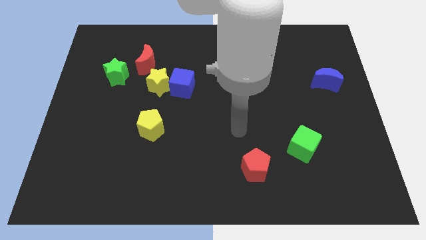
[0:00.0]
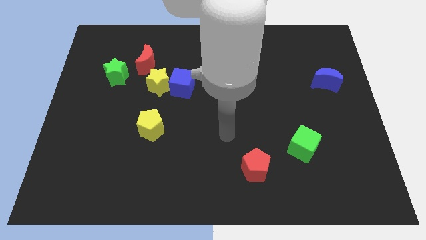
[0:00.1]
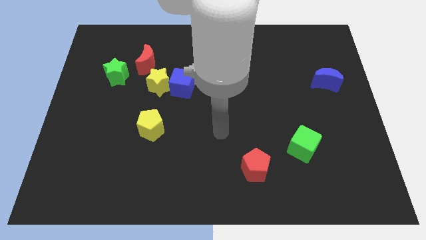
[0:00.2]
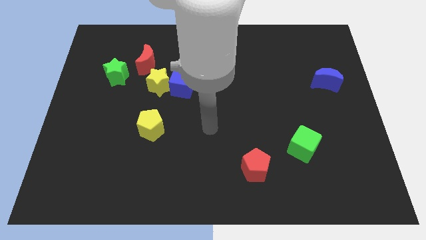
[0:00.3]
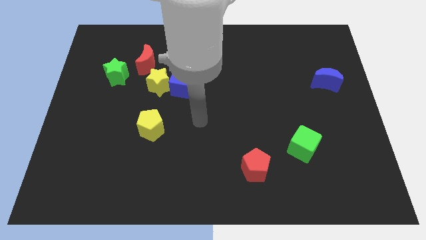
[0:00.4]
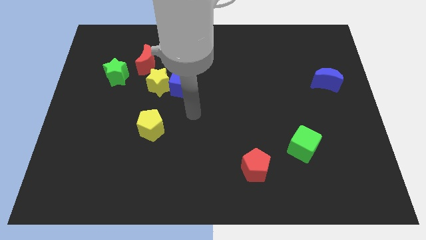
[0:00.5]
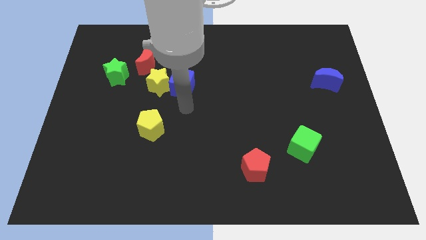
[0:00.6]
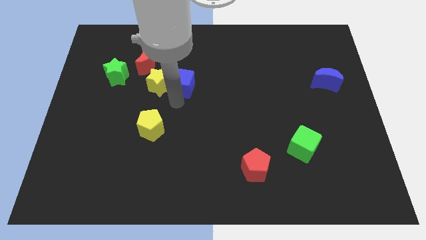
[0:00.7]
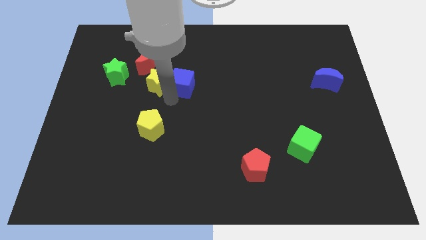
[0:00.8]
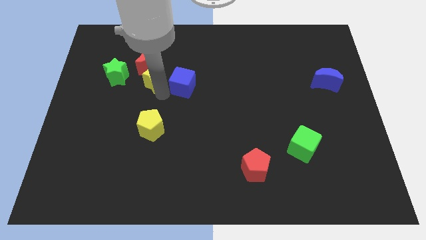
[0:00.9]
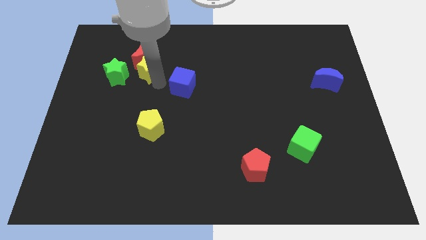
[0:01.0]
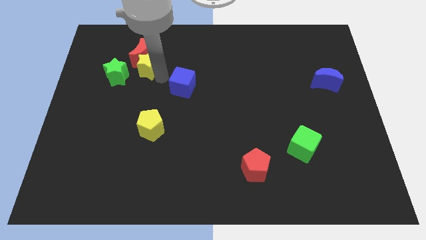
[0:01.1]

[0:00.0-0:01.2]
pull the blue cube apart from the yellow star

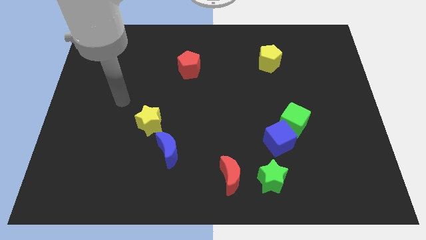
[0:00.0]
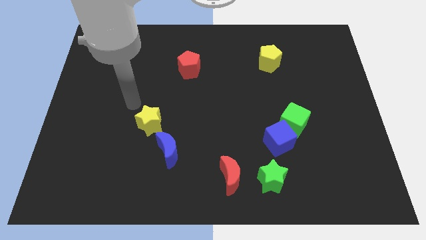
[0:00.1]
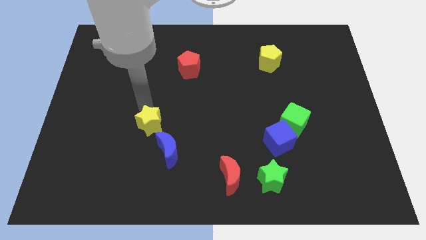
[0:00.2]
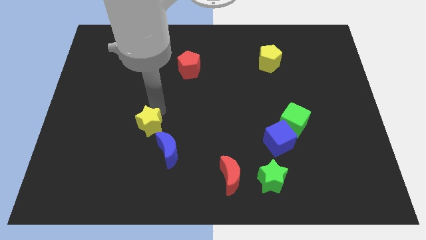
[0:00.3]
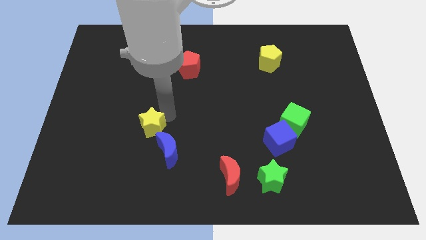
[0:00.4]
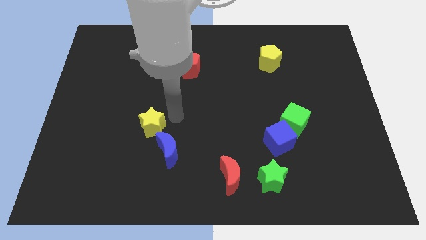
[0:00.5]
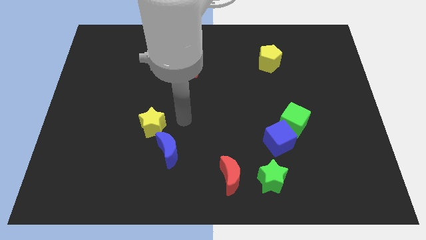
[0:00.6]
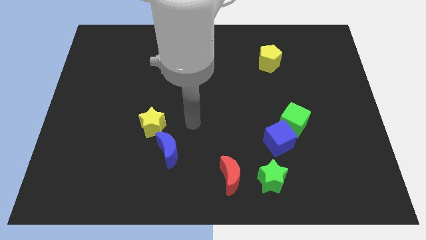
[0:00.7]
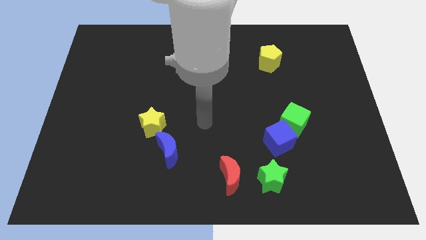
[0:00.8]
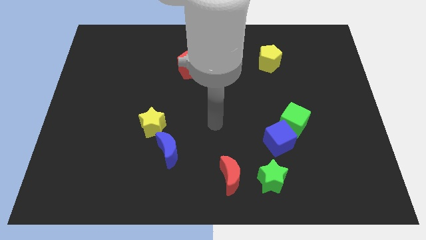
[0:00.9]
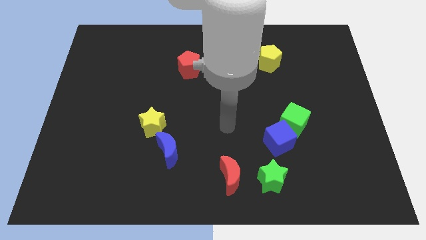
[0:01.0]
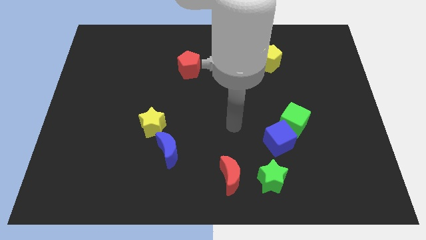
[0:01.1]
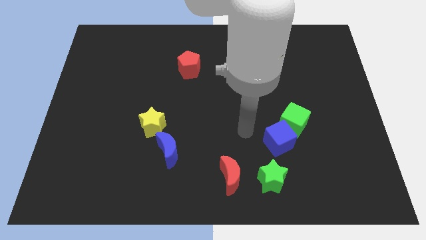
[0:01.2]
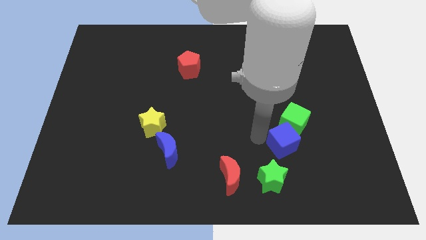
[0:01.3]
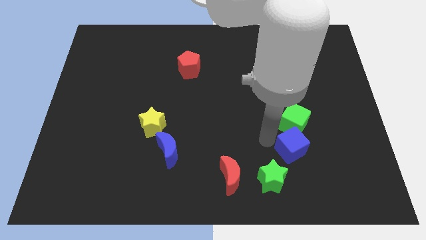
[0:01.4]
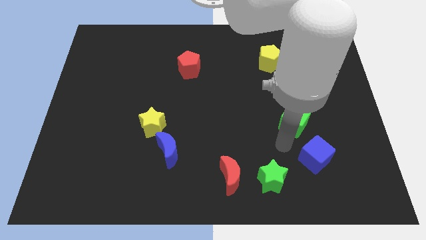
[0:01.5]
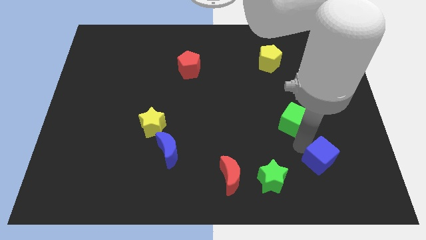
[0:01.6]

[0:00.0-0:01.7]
separate the green cube from the blue cube

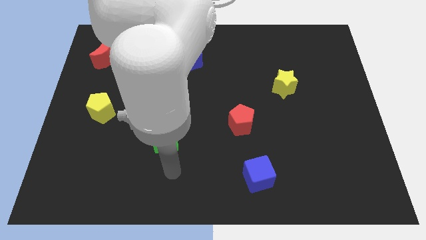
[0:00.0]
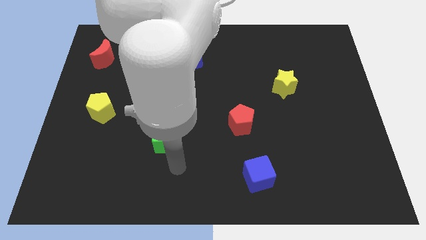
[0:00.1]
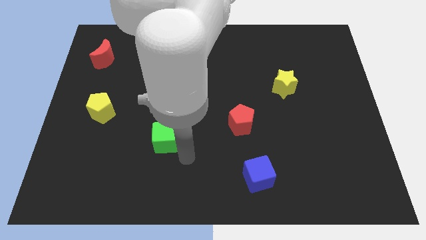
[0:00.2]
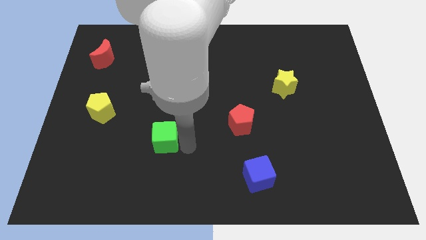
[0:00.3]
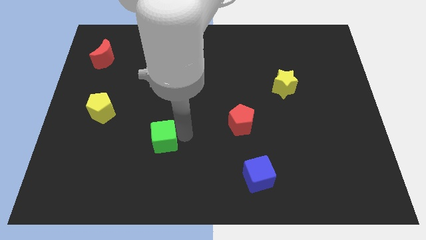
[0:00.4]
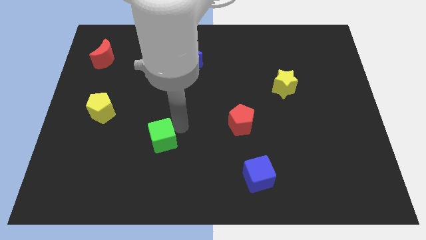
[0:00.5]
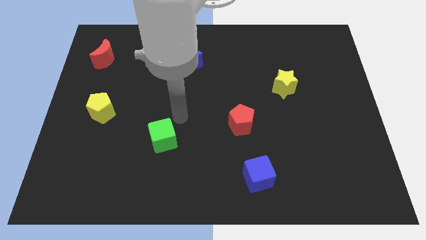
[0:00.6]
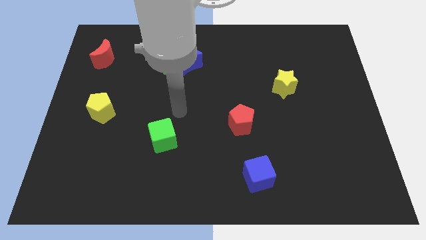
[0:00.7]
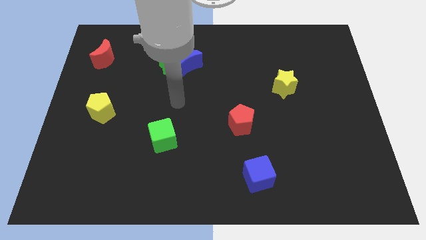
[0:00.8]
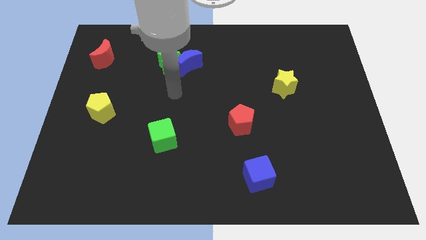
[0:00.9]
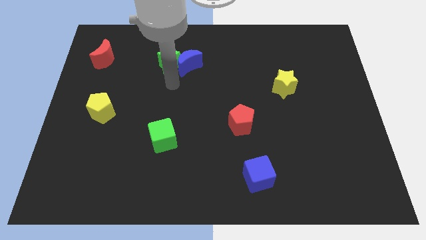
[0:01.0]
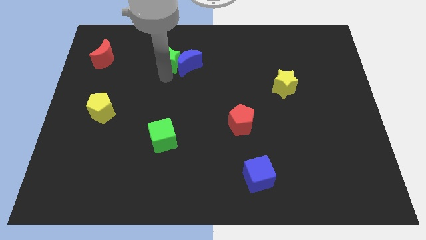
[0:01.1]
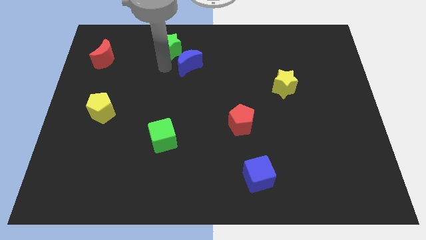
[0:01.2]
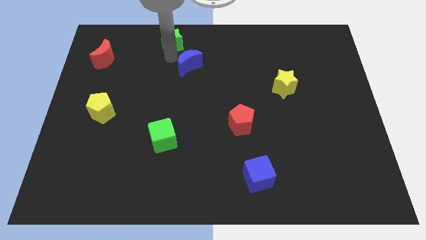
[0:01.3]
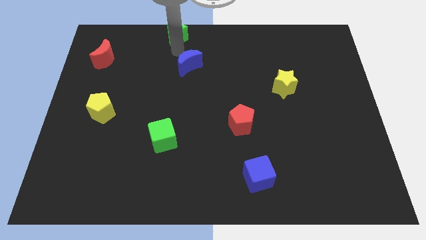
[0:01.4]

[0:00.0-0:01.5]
separate the blue moon from the green star

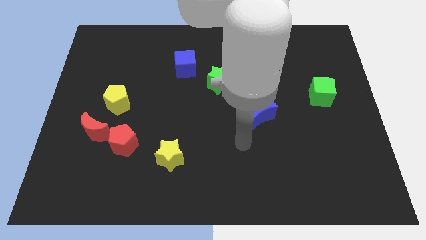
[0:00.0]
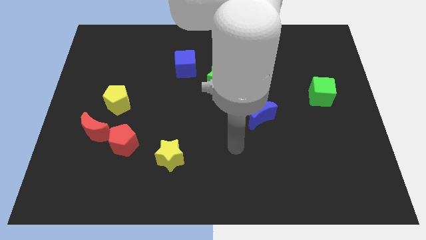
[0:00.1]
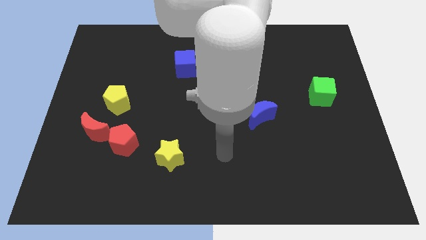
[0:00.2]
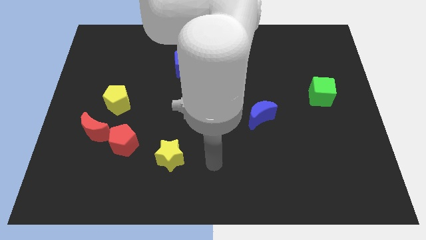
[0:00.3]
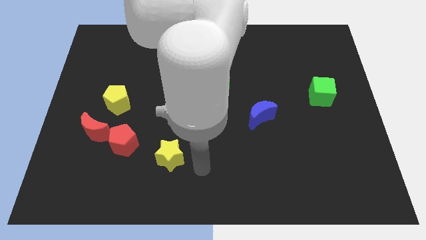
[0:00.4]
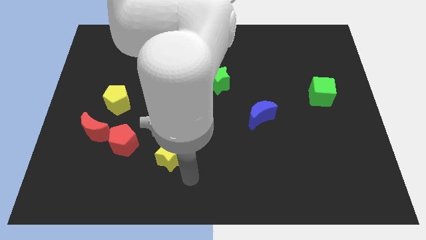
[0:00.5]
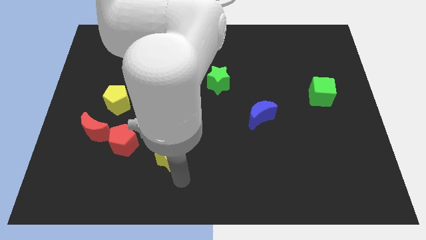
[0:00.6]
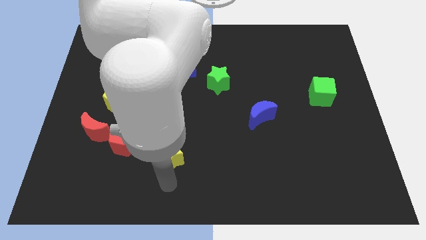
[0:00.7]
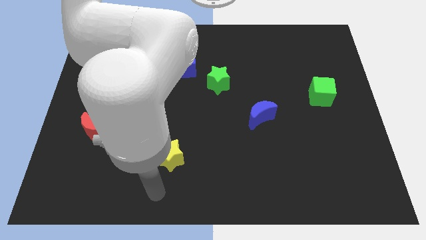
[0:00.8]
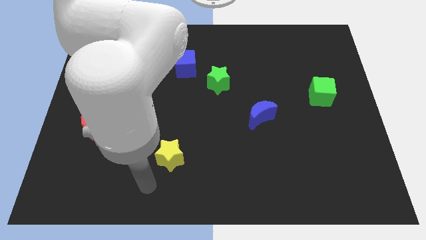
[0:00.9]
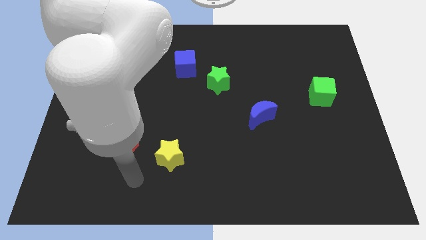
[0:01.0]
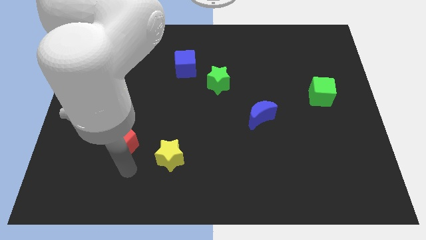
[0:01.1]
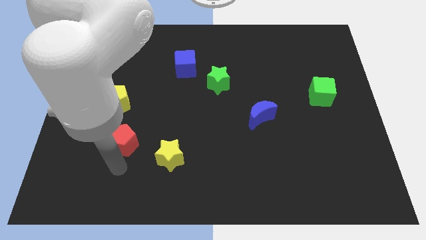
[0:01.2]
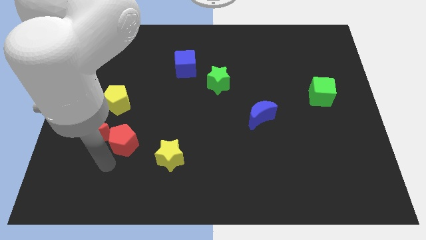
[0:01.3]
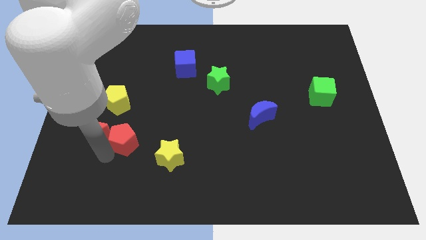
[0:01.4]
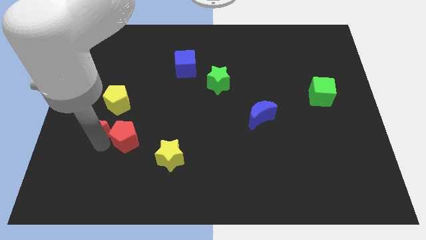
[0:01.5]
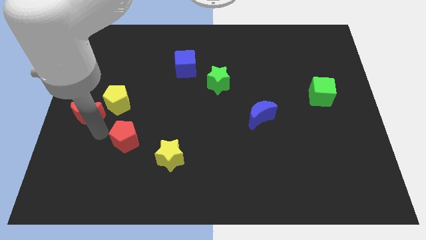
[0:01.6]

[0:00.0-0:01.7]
separate the red pentagon from the red moon

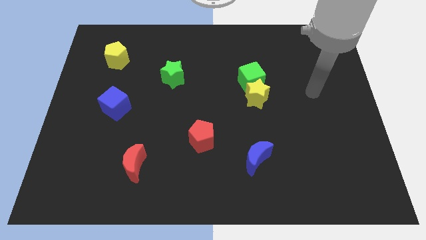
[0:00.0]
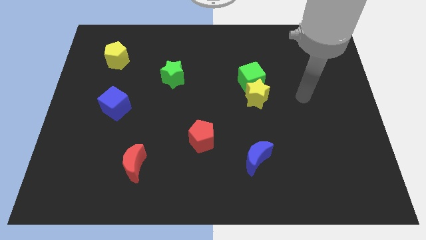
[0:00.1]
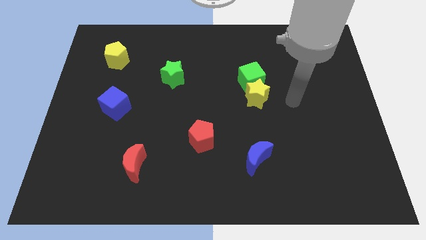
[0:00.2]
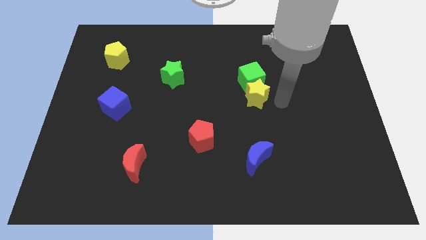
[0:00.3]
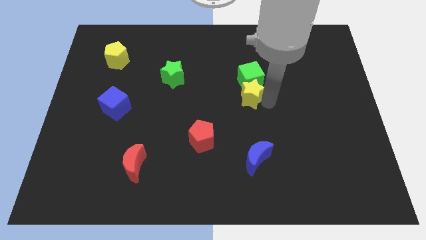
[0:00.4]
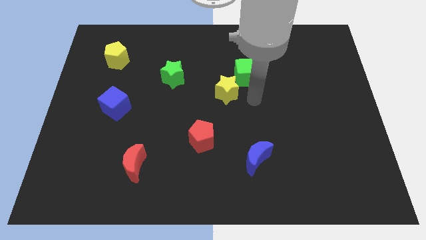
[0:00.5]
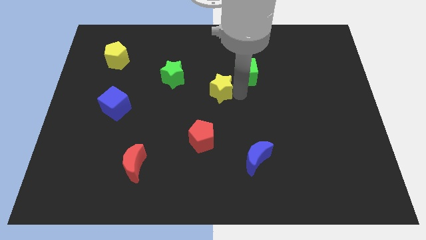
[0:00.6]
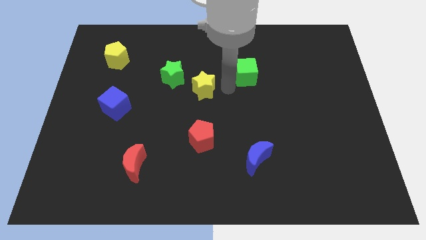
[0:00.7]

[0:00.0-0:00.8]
separate the green cube from the yellow star

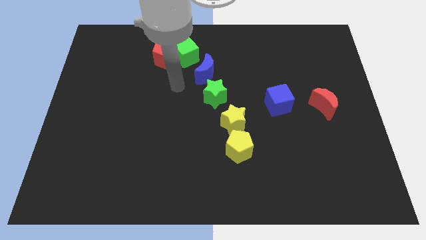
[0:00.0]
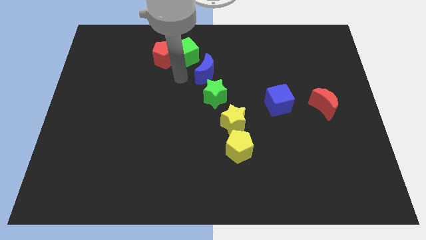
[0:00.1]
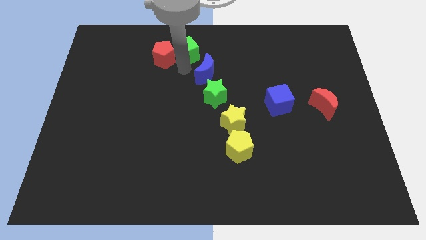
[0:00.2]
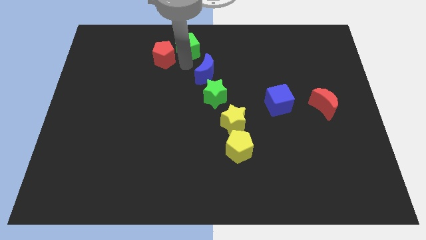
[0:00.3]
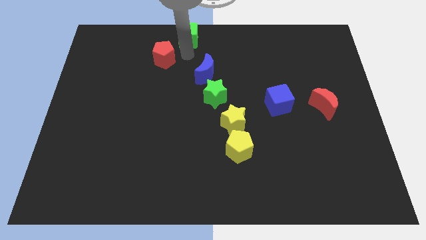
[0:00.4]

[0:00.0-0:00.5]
separate the red pentagon from the green cube

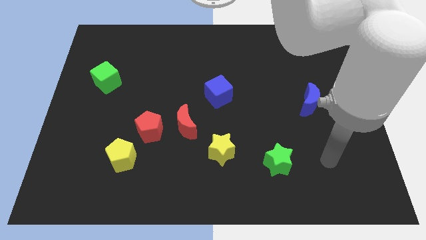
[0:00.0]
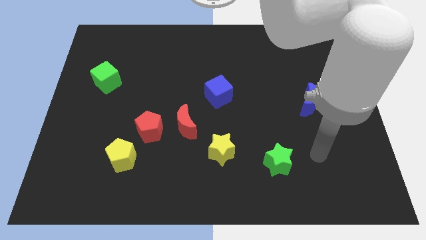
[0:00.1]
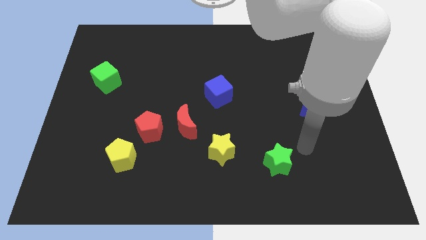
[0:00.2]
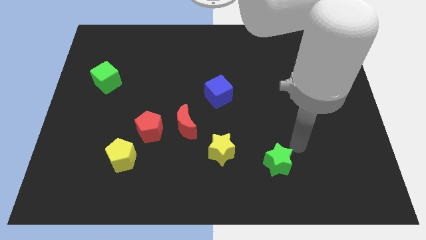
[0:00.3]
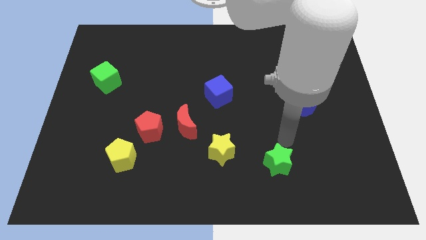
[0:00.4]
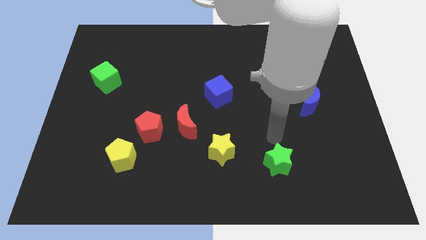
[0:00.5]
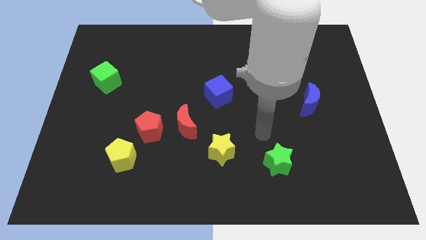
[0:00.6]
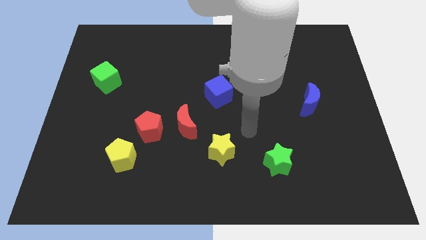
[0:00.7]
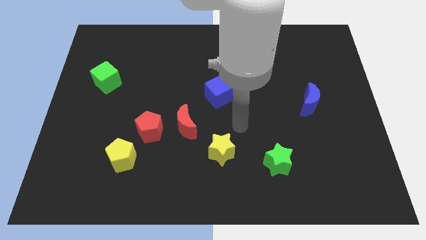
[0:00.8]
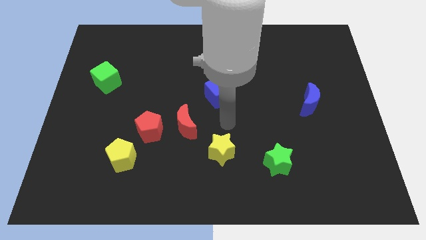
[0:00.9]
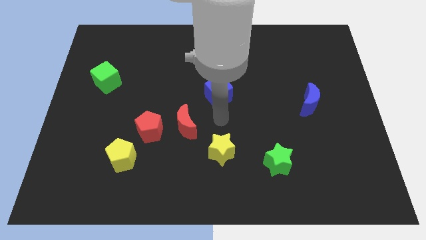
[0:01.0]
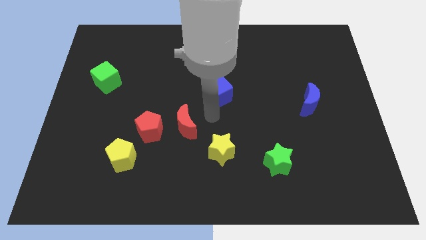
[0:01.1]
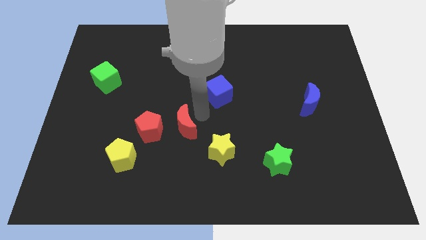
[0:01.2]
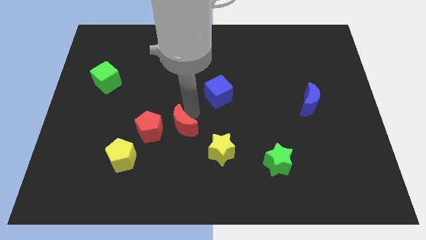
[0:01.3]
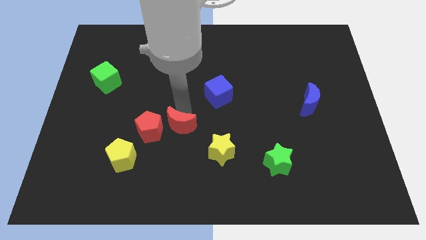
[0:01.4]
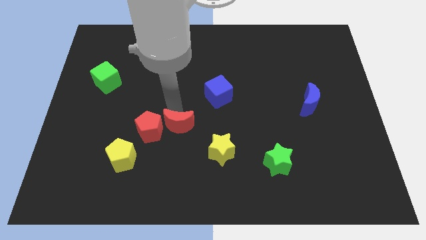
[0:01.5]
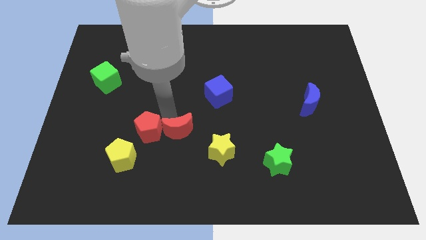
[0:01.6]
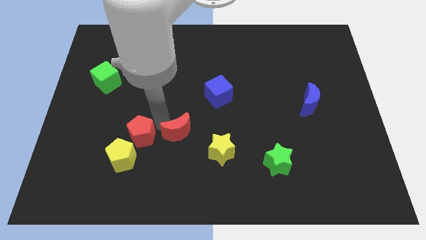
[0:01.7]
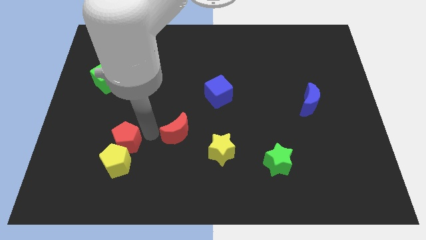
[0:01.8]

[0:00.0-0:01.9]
separate the red moon from the red pentagon

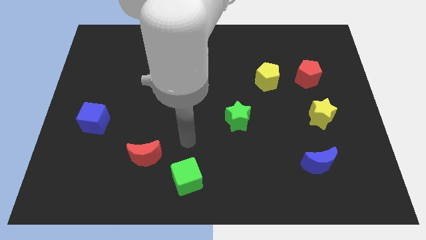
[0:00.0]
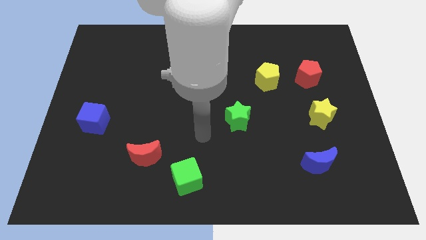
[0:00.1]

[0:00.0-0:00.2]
pull the red pentagon apart from the yellow pentagon
